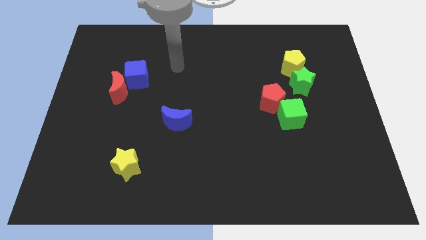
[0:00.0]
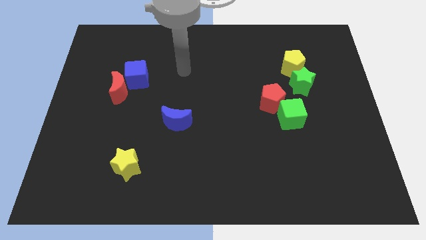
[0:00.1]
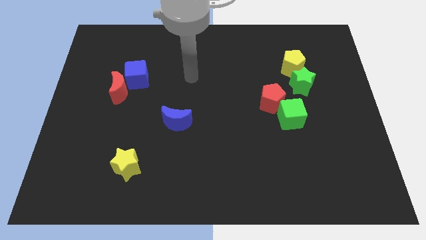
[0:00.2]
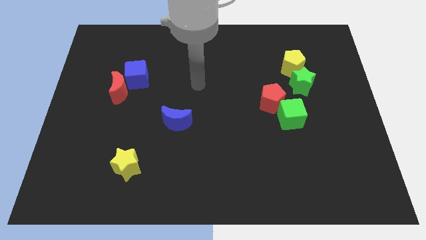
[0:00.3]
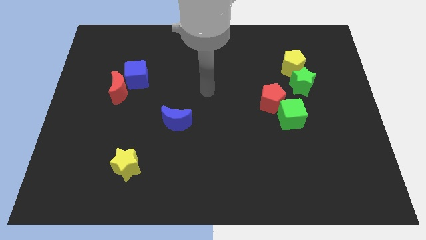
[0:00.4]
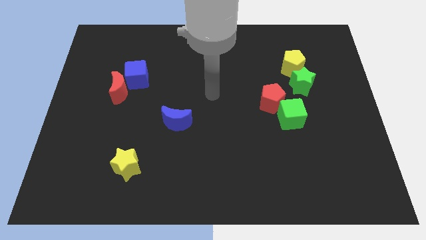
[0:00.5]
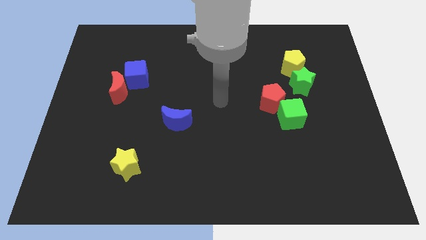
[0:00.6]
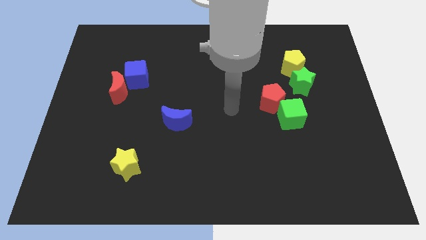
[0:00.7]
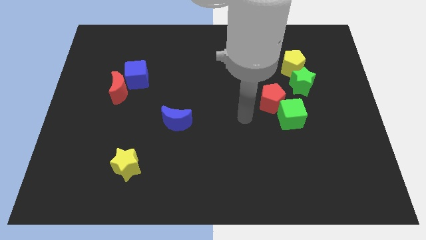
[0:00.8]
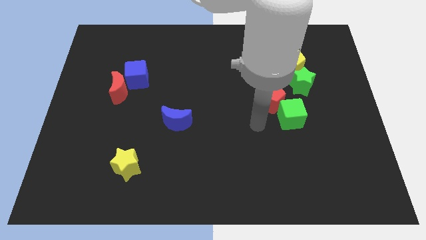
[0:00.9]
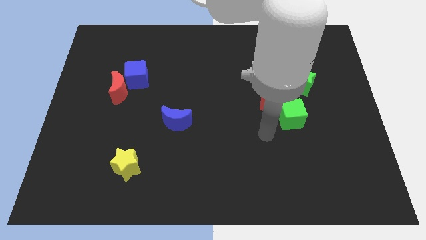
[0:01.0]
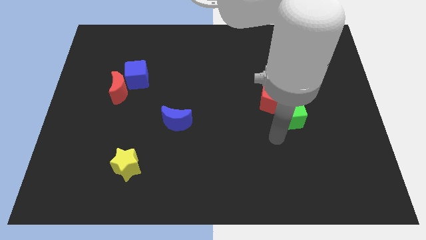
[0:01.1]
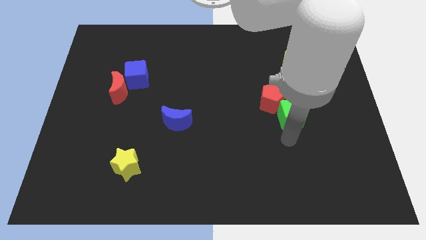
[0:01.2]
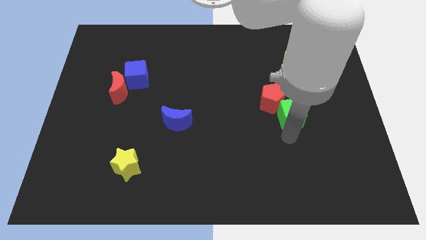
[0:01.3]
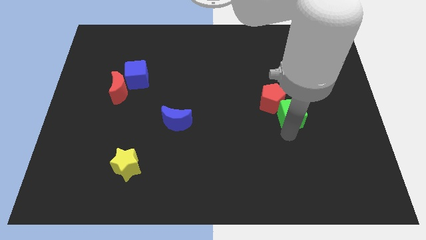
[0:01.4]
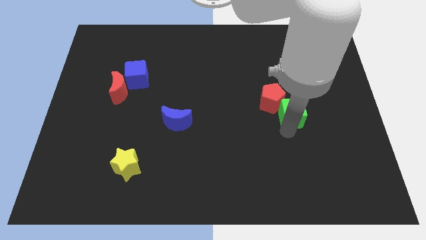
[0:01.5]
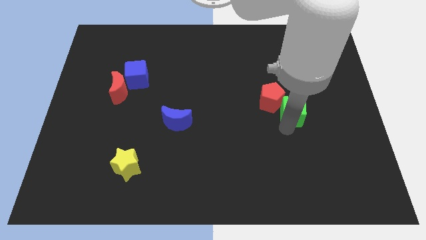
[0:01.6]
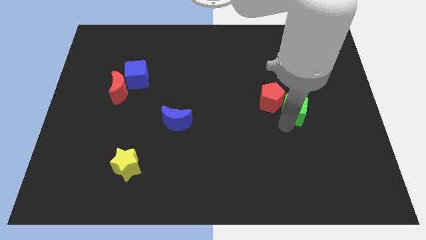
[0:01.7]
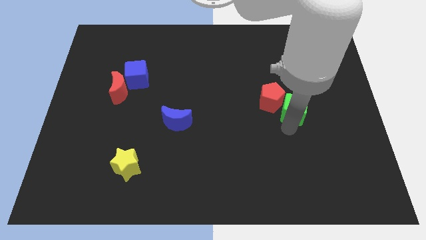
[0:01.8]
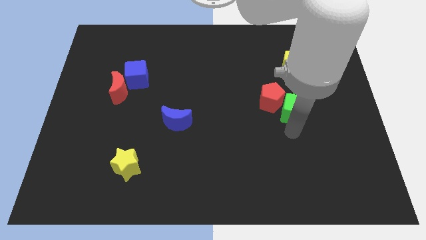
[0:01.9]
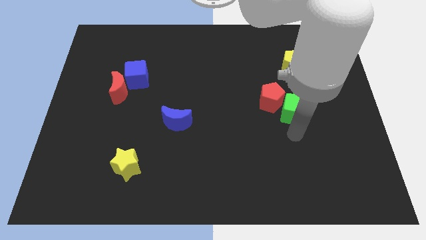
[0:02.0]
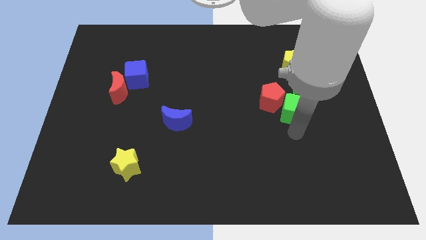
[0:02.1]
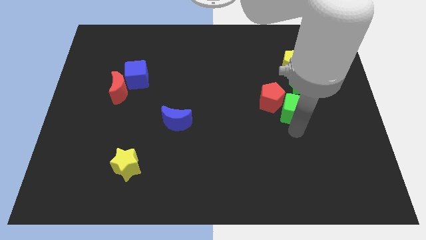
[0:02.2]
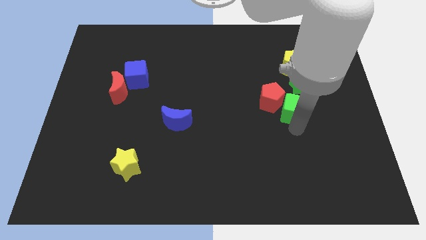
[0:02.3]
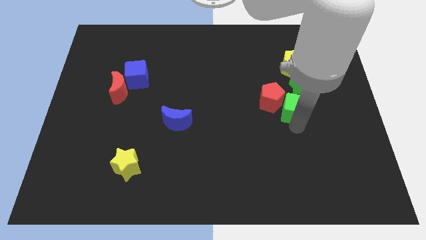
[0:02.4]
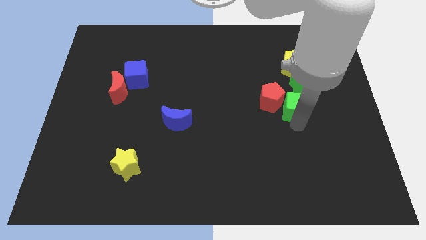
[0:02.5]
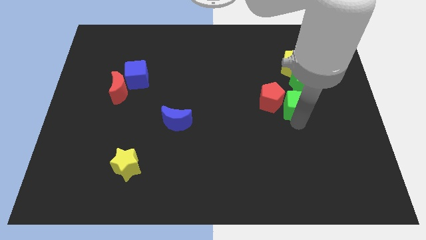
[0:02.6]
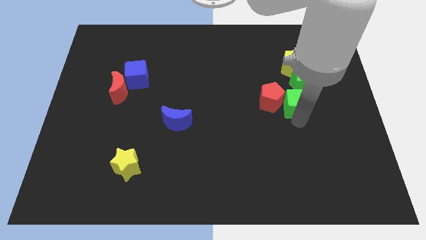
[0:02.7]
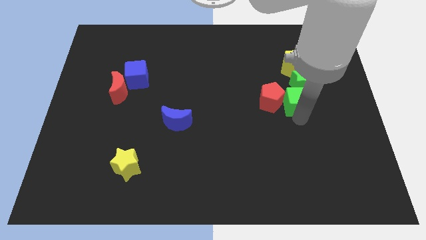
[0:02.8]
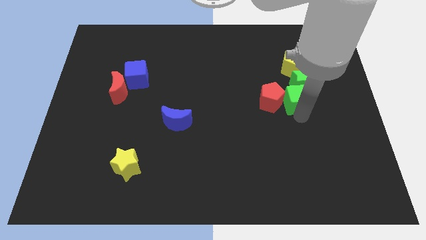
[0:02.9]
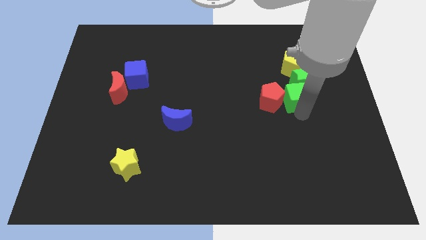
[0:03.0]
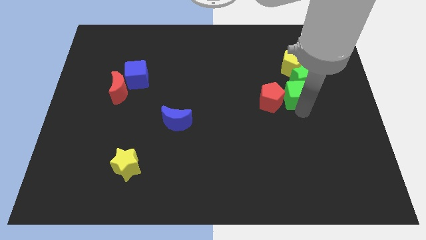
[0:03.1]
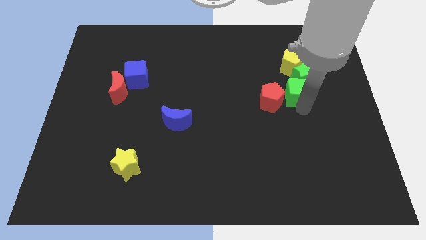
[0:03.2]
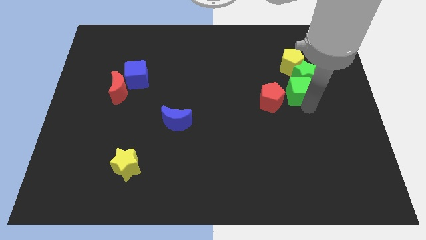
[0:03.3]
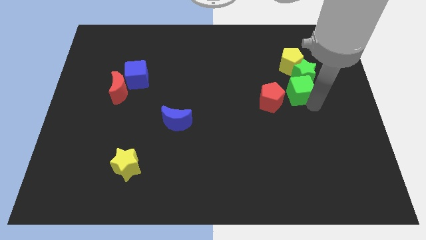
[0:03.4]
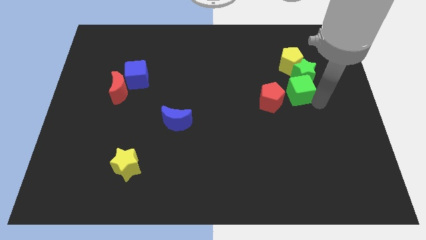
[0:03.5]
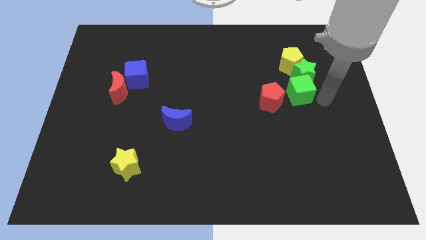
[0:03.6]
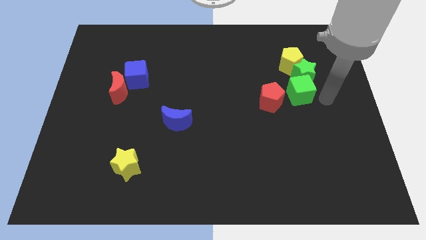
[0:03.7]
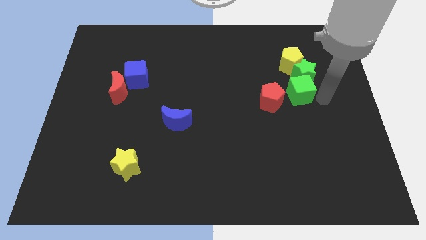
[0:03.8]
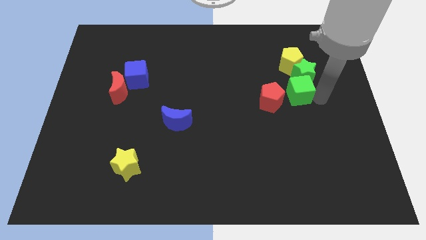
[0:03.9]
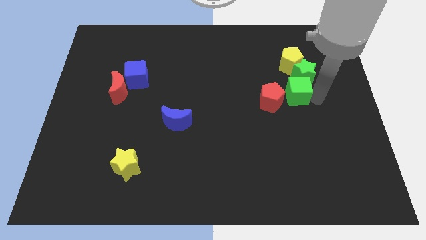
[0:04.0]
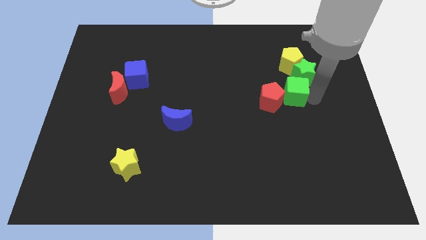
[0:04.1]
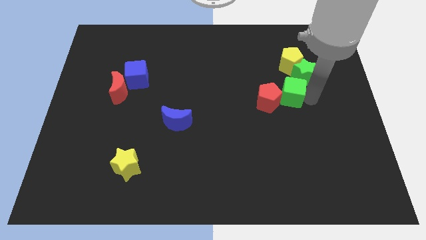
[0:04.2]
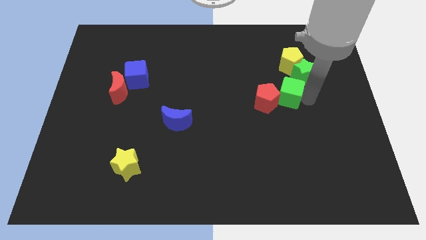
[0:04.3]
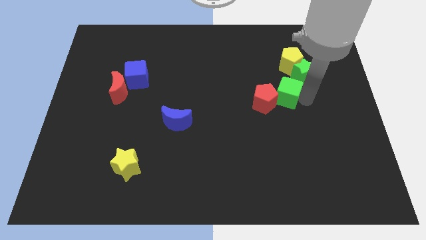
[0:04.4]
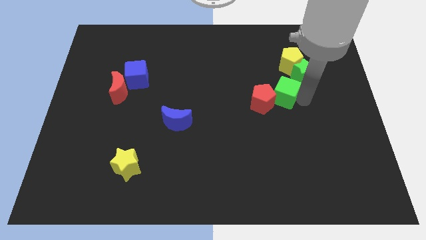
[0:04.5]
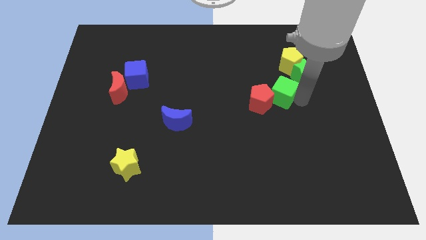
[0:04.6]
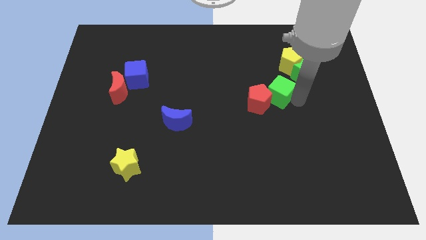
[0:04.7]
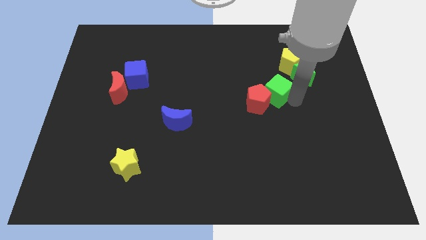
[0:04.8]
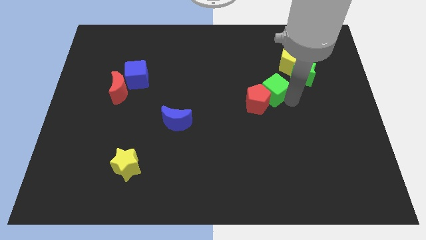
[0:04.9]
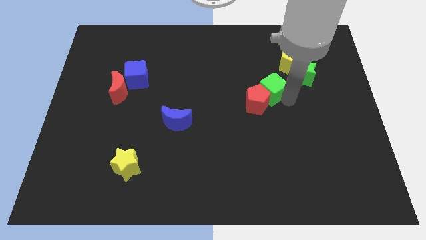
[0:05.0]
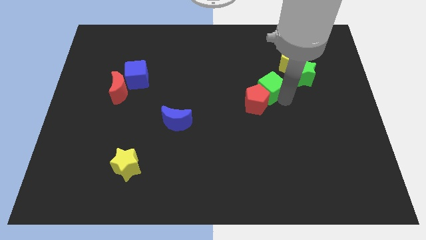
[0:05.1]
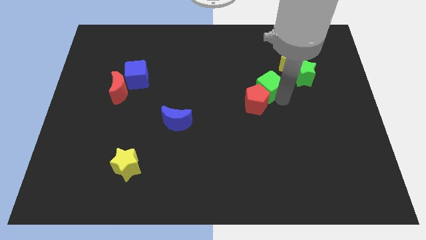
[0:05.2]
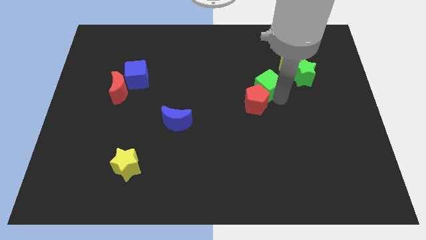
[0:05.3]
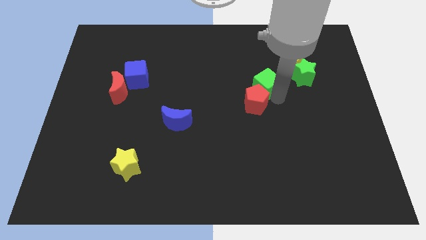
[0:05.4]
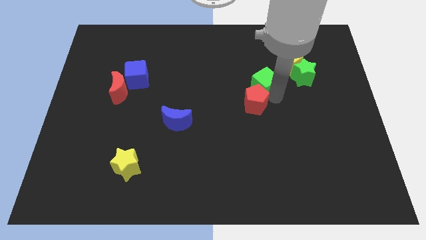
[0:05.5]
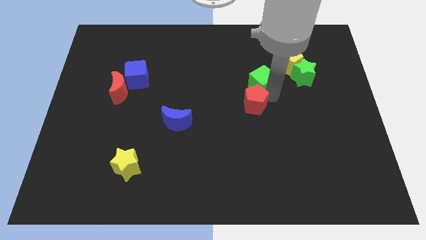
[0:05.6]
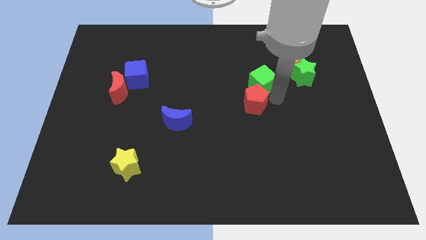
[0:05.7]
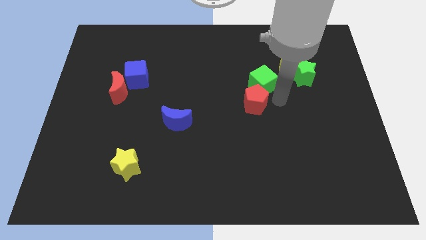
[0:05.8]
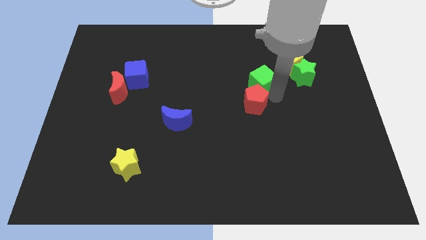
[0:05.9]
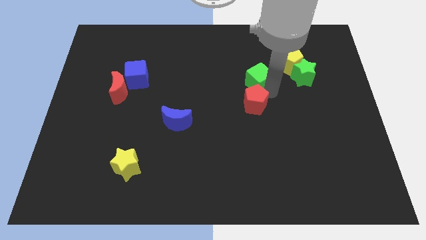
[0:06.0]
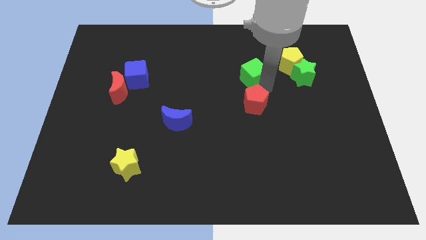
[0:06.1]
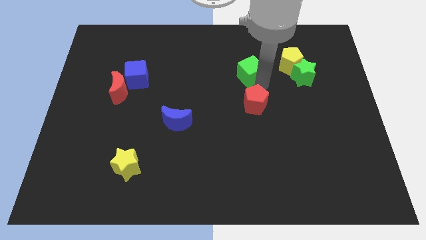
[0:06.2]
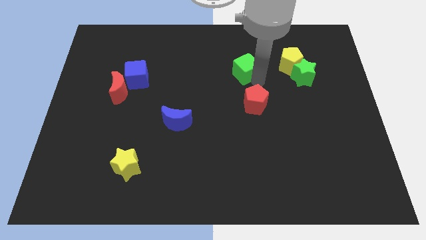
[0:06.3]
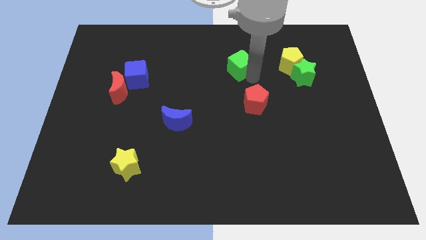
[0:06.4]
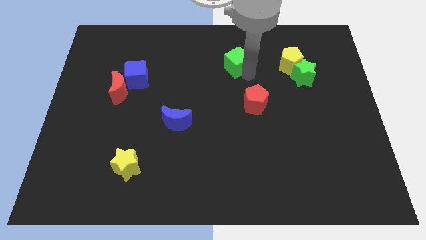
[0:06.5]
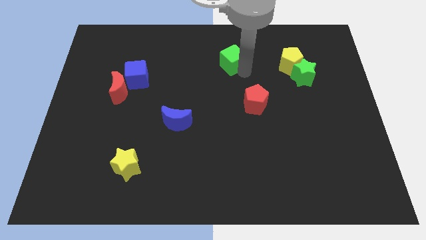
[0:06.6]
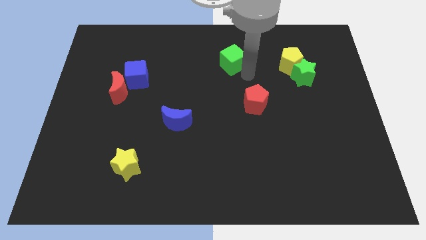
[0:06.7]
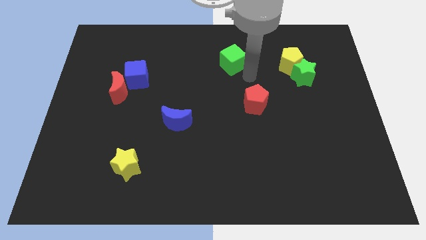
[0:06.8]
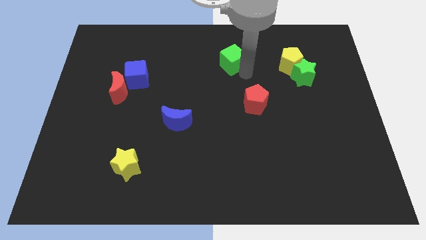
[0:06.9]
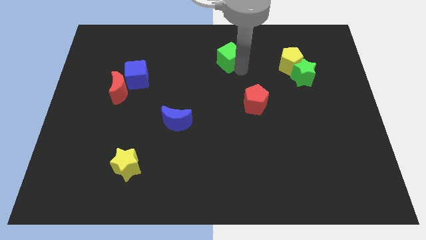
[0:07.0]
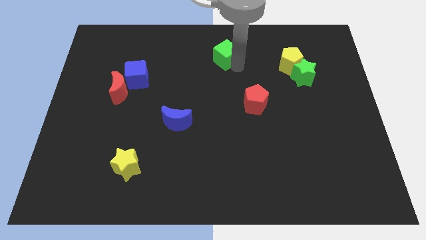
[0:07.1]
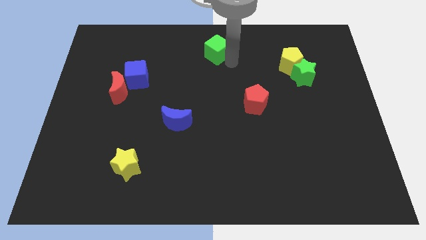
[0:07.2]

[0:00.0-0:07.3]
move the green cube to the top side
